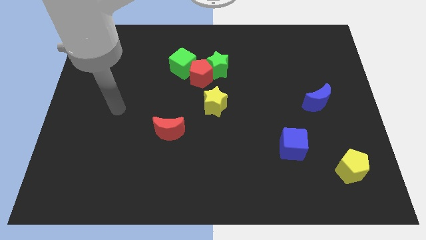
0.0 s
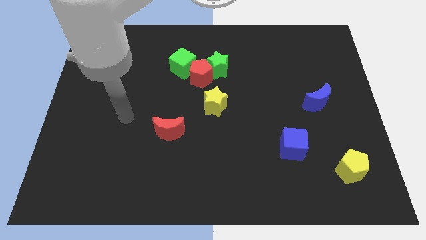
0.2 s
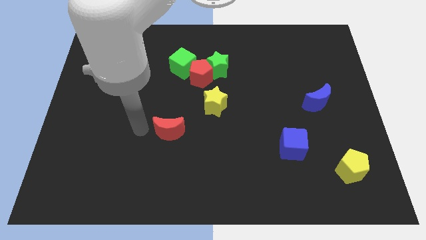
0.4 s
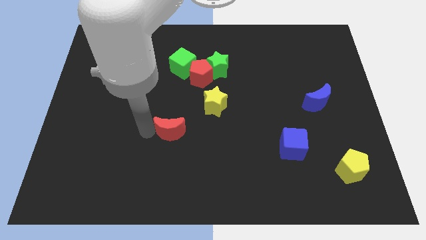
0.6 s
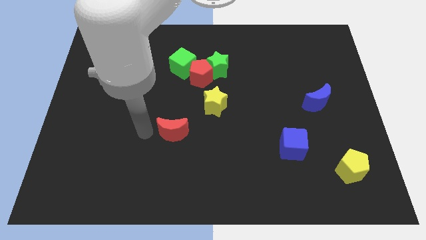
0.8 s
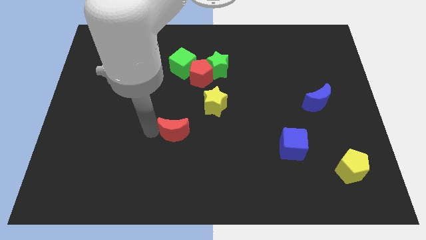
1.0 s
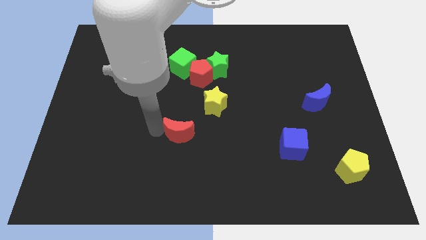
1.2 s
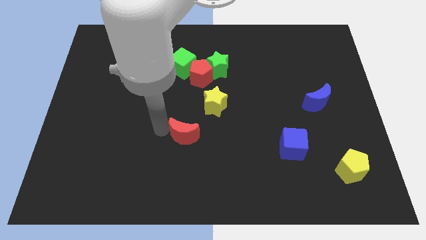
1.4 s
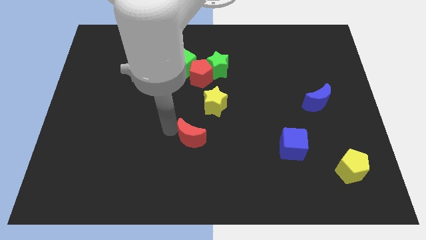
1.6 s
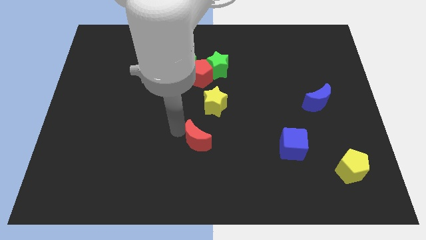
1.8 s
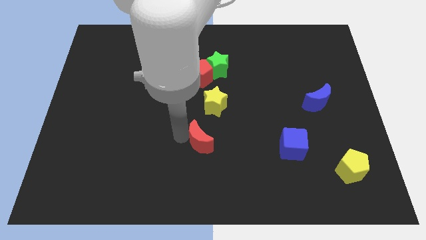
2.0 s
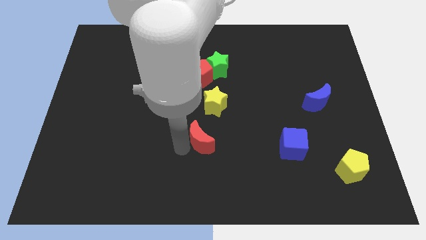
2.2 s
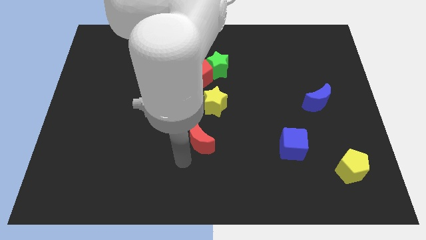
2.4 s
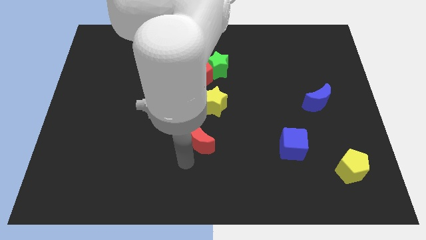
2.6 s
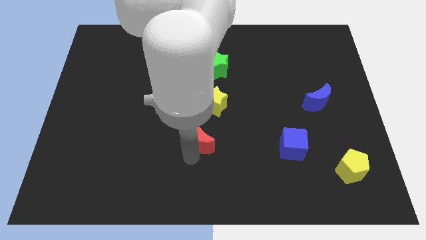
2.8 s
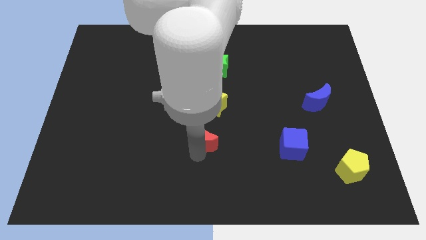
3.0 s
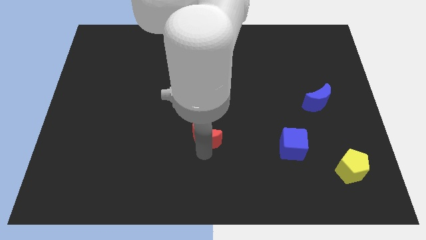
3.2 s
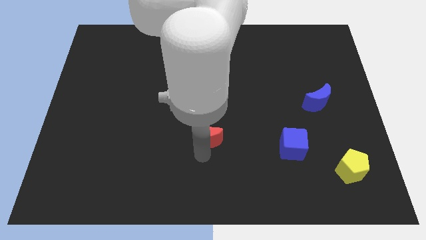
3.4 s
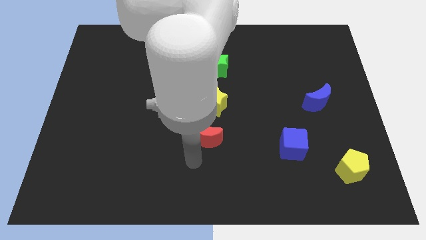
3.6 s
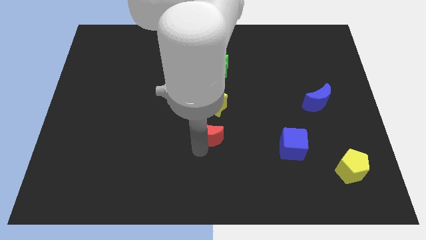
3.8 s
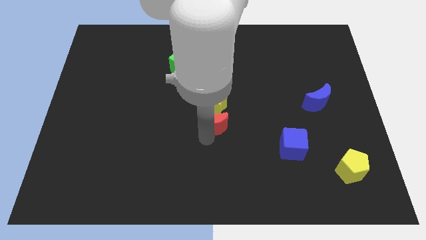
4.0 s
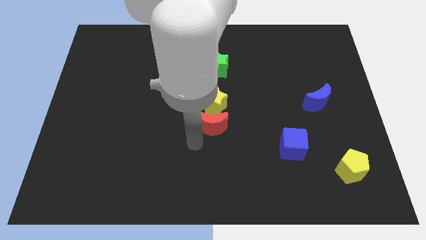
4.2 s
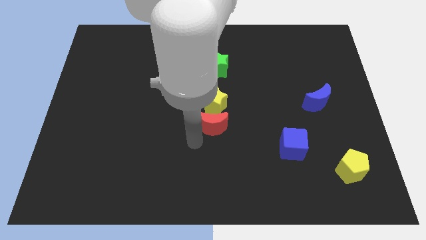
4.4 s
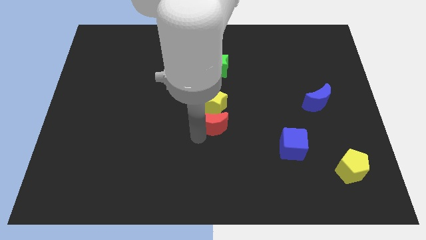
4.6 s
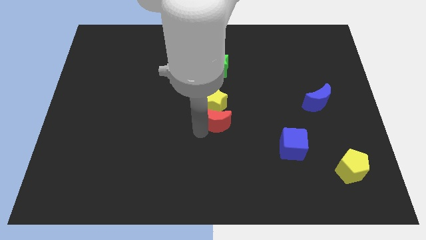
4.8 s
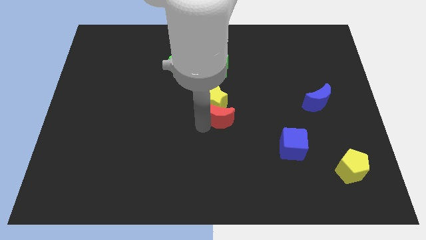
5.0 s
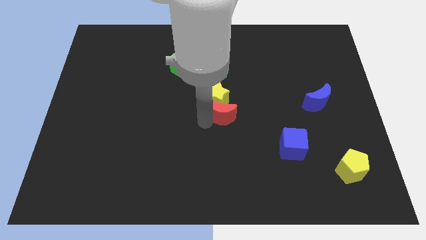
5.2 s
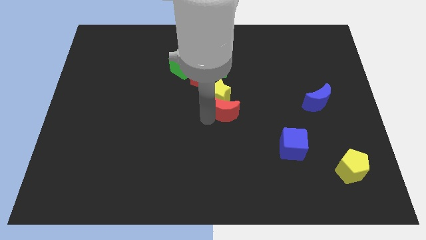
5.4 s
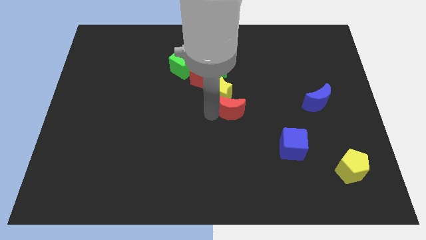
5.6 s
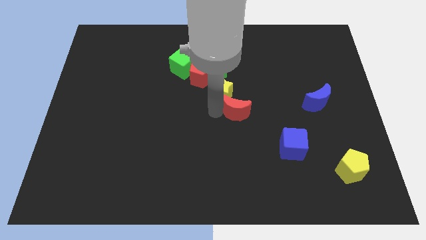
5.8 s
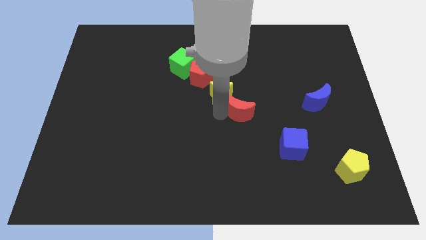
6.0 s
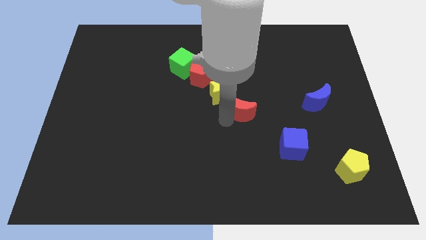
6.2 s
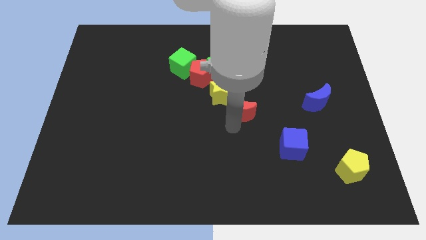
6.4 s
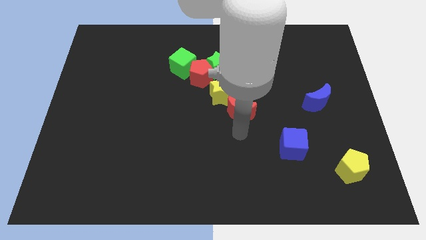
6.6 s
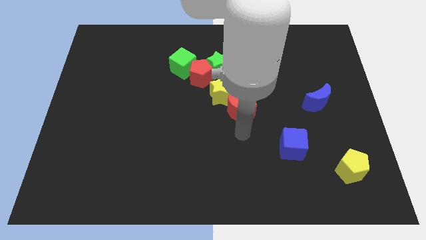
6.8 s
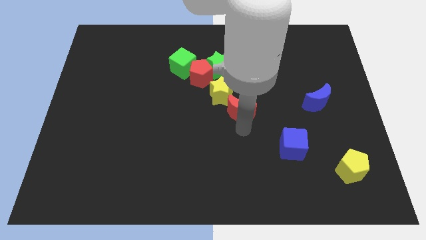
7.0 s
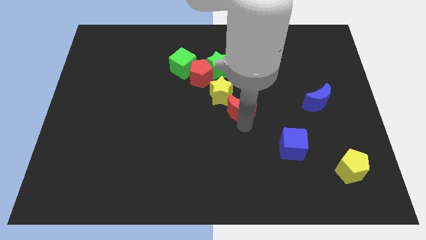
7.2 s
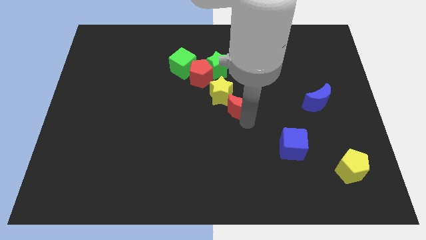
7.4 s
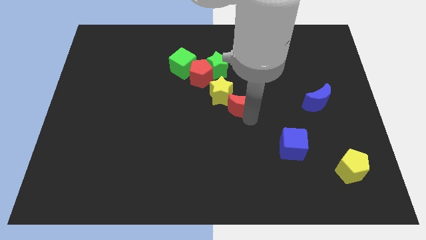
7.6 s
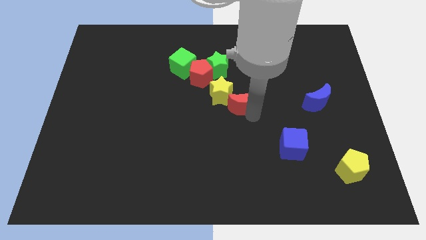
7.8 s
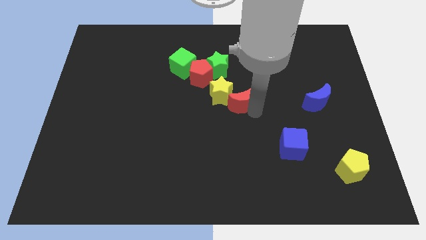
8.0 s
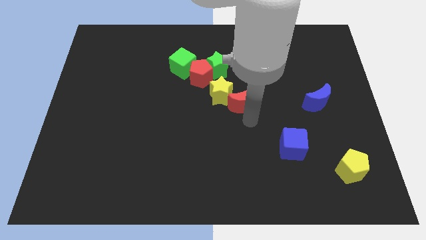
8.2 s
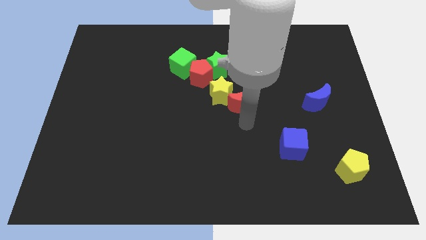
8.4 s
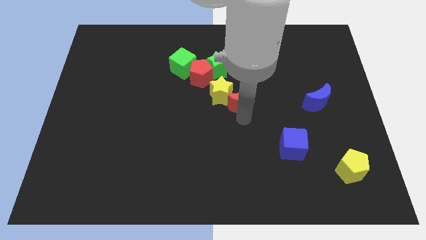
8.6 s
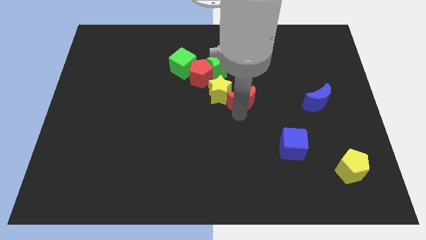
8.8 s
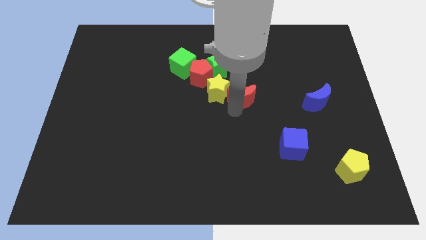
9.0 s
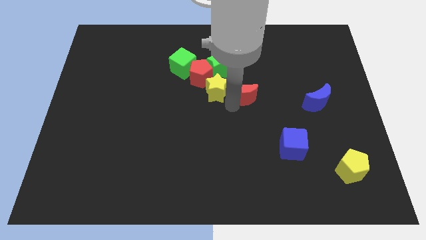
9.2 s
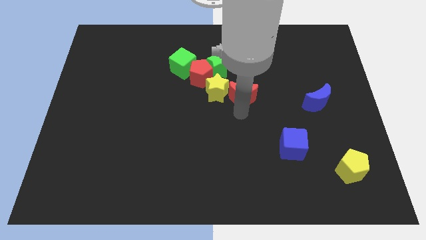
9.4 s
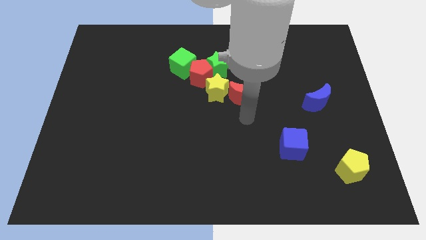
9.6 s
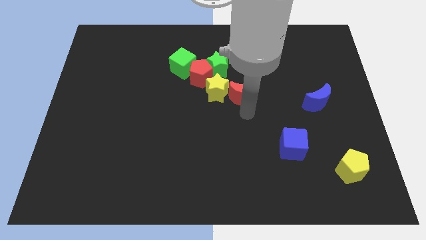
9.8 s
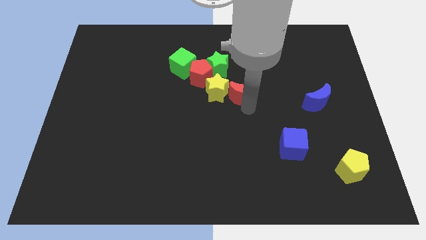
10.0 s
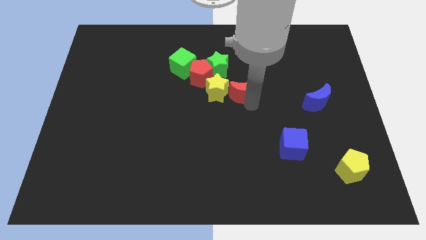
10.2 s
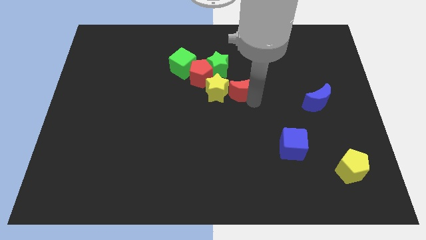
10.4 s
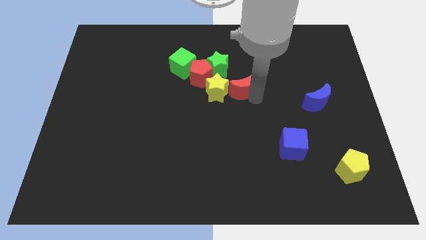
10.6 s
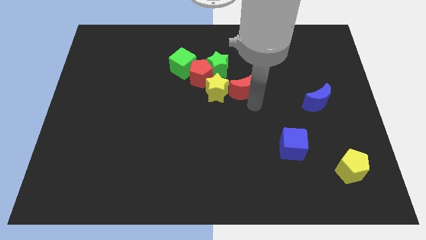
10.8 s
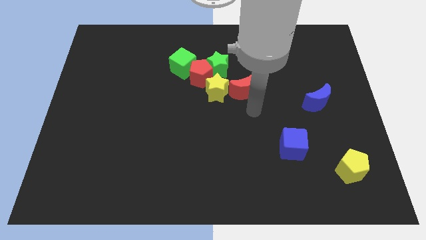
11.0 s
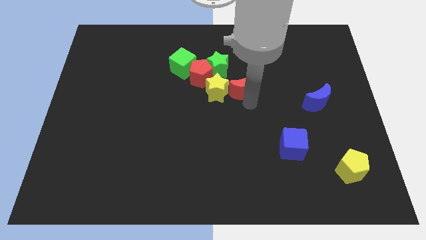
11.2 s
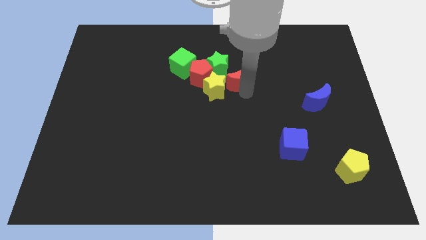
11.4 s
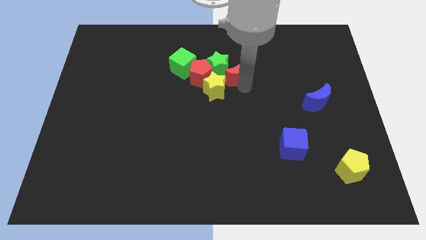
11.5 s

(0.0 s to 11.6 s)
put the red moon to the right of the green cube

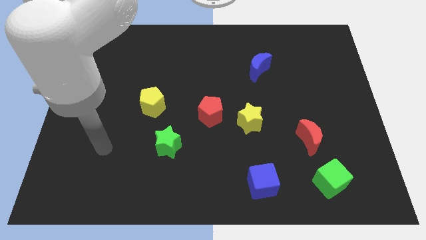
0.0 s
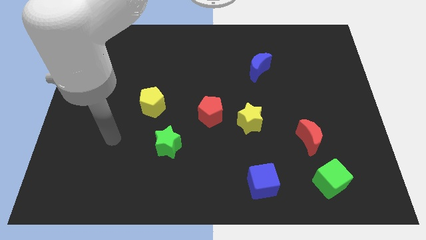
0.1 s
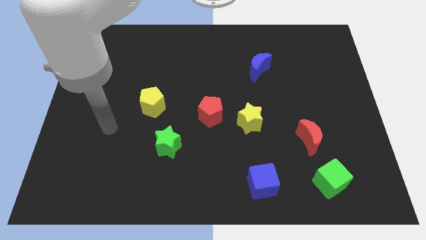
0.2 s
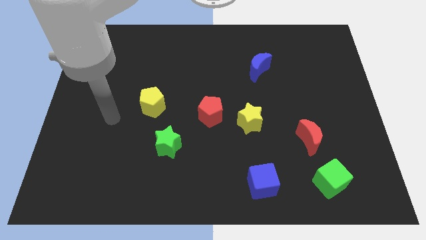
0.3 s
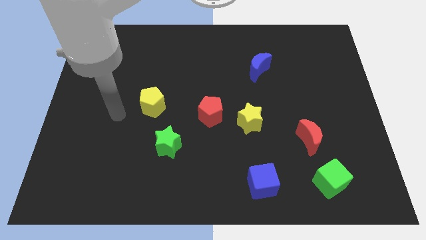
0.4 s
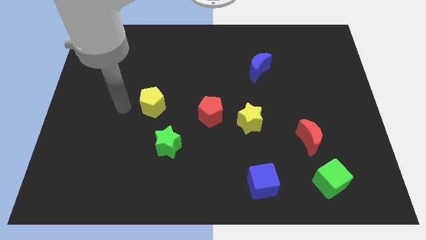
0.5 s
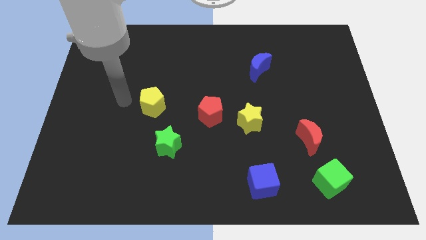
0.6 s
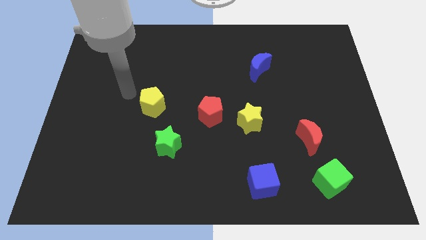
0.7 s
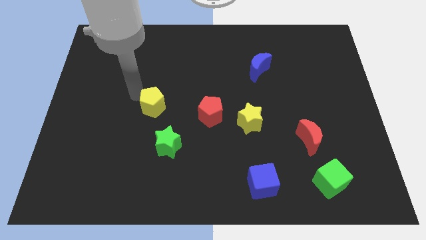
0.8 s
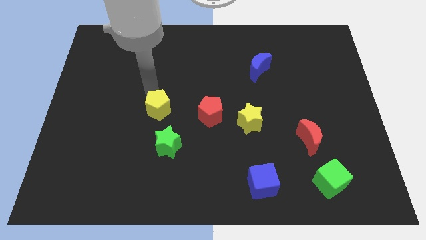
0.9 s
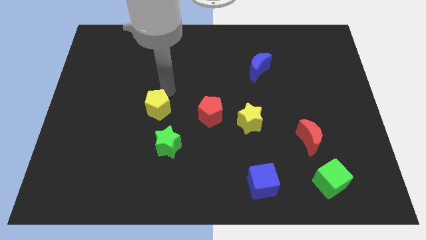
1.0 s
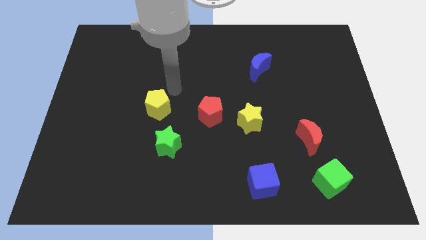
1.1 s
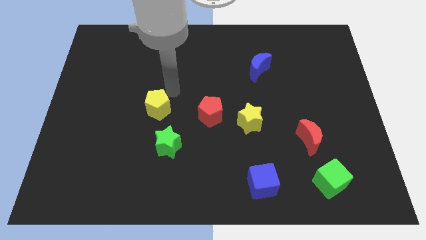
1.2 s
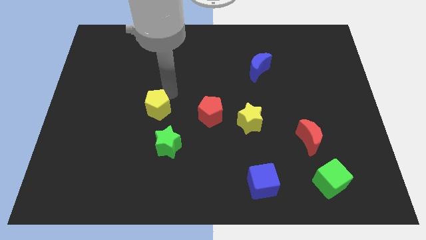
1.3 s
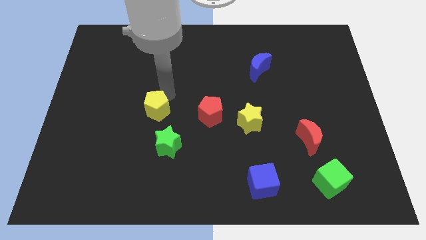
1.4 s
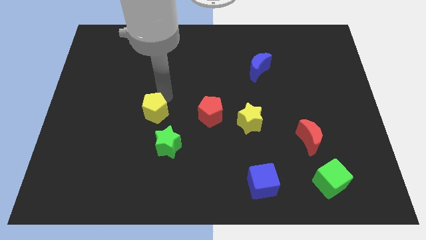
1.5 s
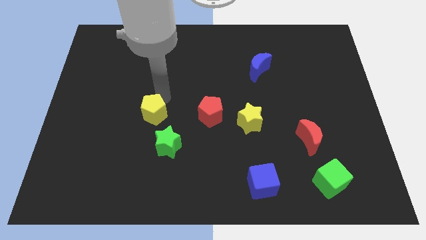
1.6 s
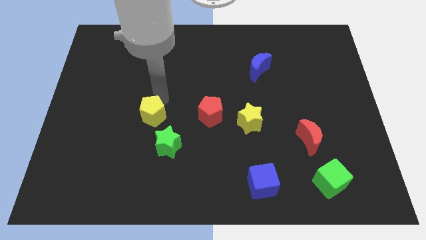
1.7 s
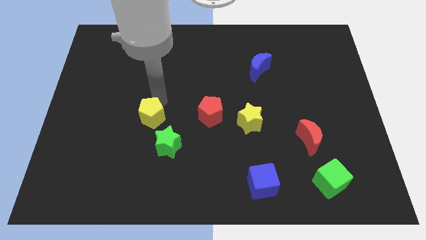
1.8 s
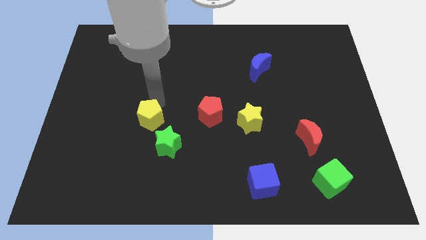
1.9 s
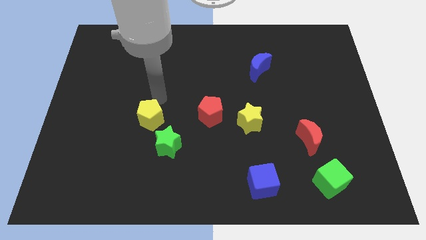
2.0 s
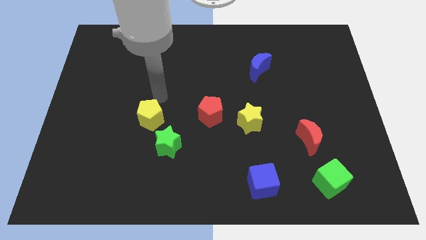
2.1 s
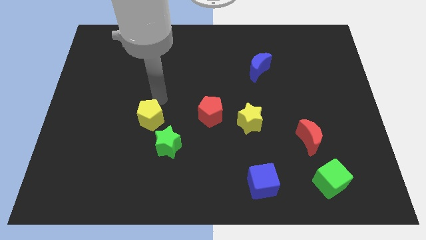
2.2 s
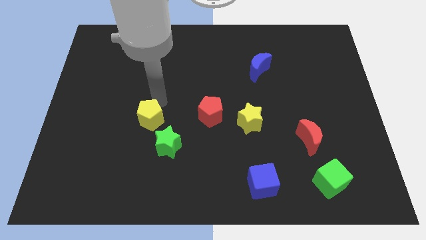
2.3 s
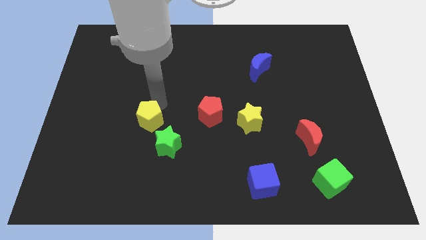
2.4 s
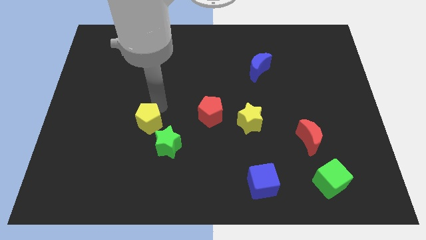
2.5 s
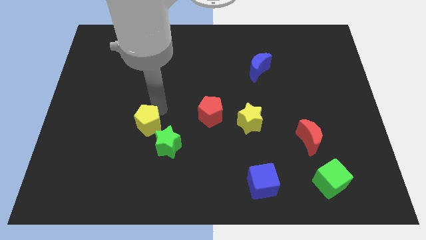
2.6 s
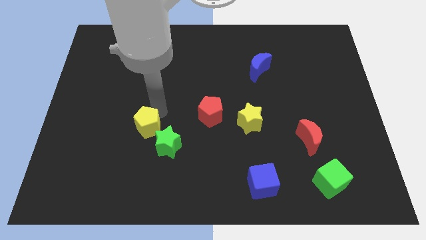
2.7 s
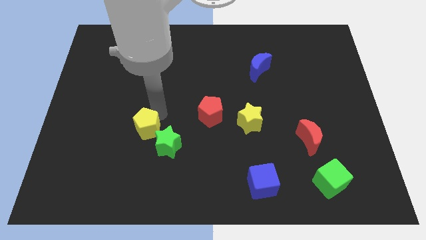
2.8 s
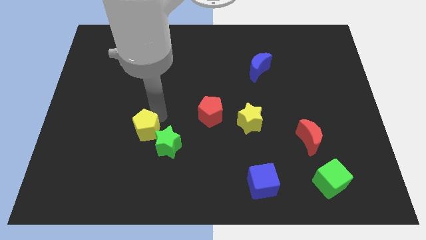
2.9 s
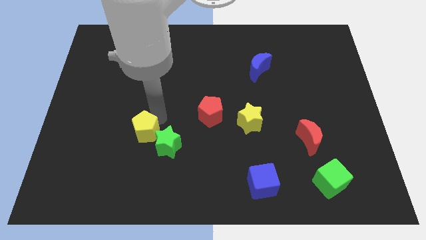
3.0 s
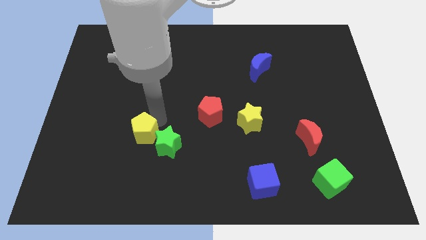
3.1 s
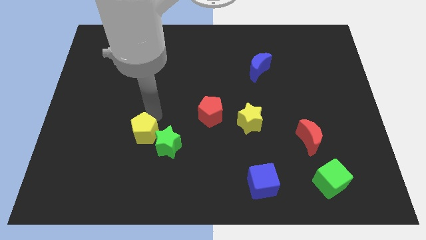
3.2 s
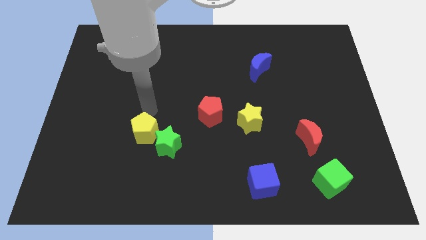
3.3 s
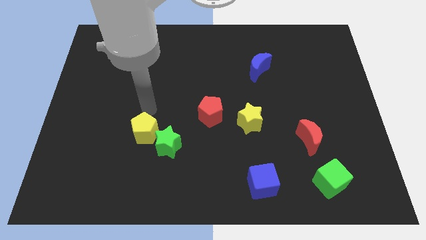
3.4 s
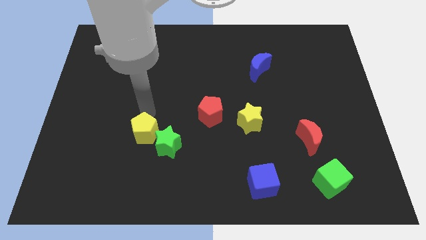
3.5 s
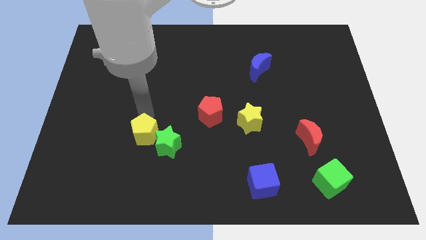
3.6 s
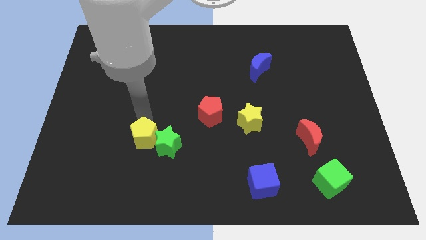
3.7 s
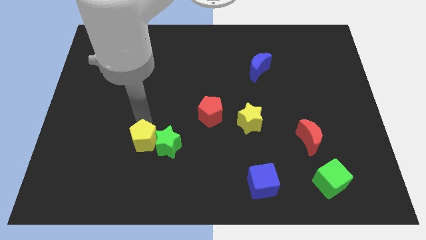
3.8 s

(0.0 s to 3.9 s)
push the yellow pentagon to the bottom left of the green star
